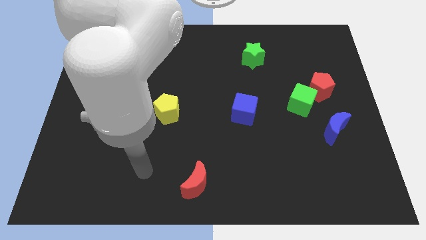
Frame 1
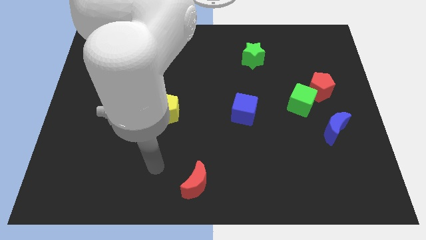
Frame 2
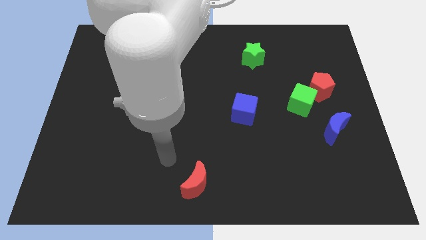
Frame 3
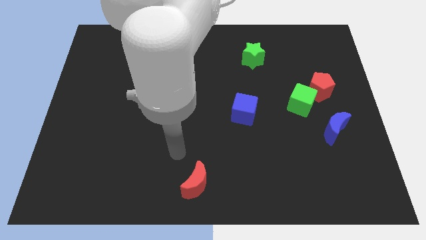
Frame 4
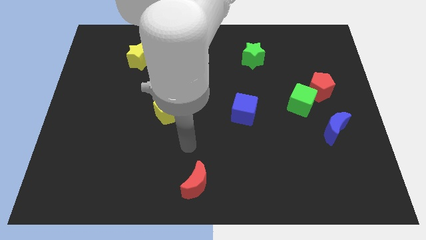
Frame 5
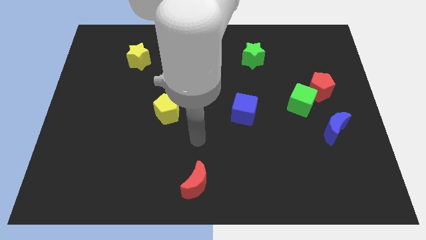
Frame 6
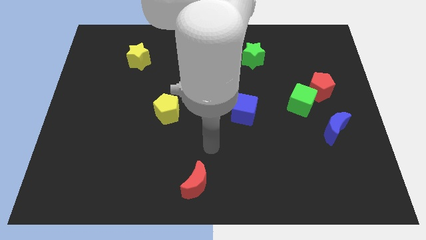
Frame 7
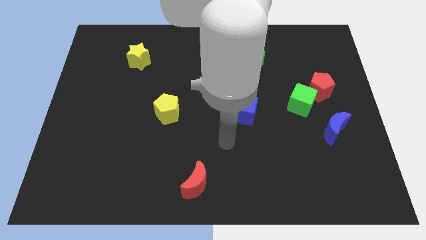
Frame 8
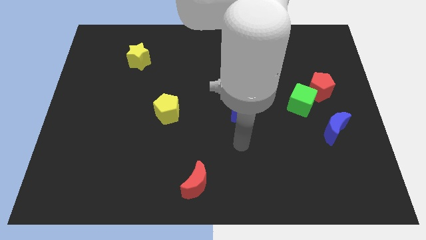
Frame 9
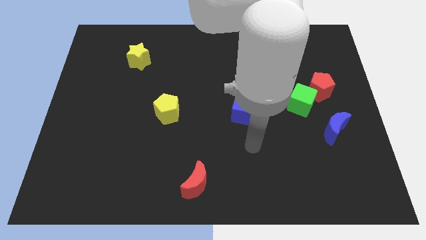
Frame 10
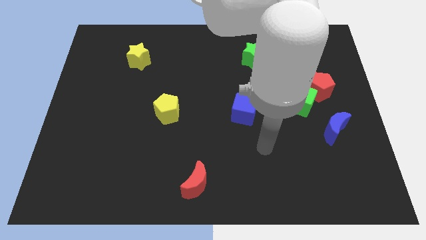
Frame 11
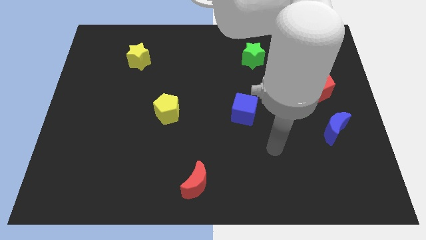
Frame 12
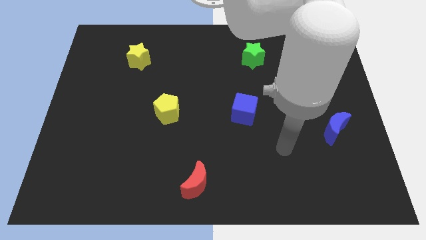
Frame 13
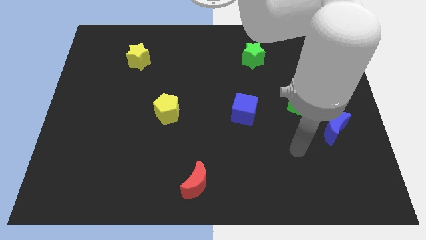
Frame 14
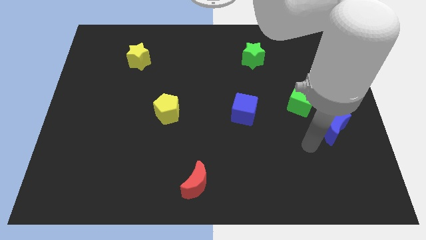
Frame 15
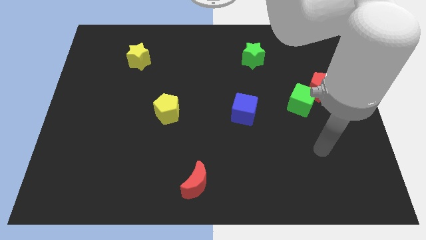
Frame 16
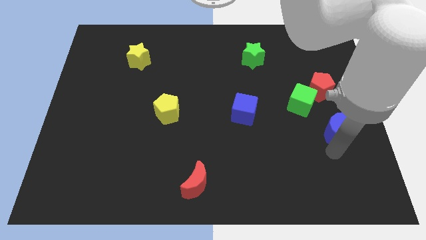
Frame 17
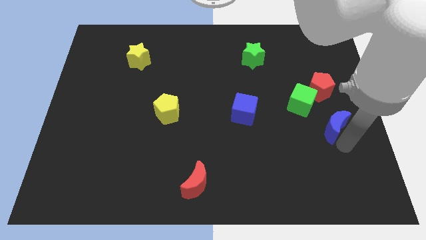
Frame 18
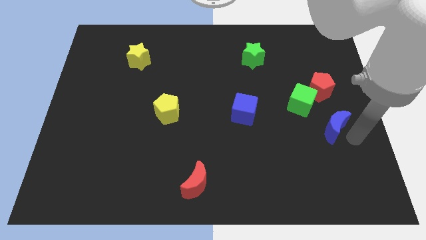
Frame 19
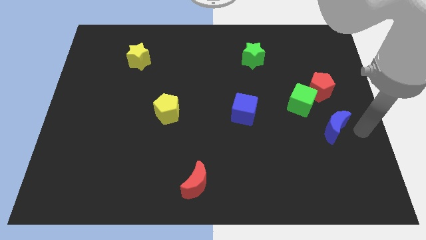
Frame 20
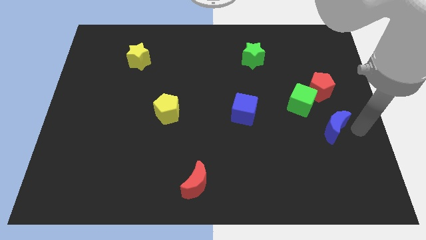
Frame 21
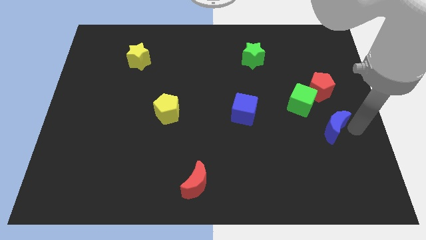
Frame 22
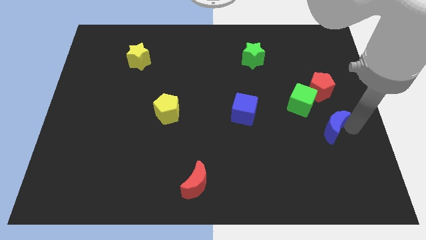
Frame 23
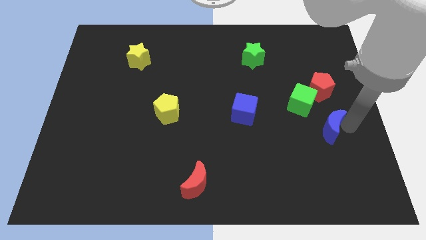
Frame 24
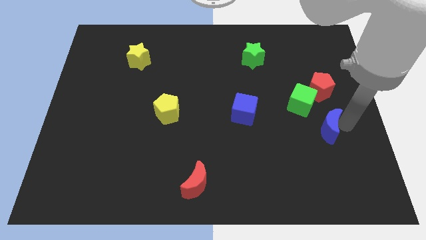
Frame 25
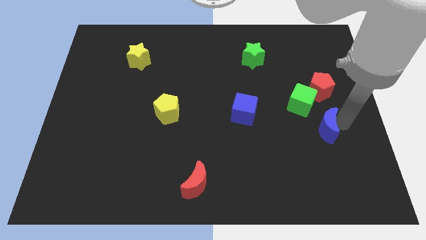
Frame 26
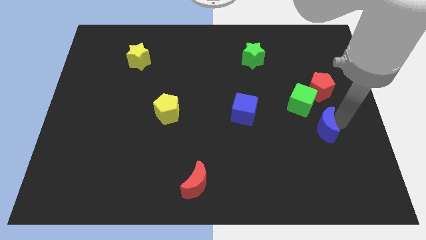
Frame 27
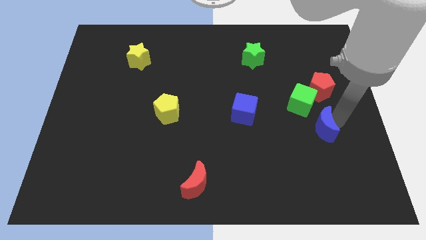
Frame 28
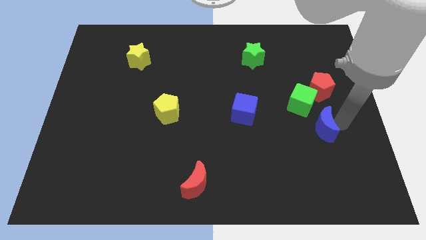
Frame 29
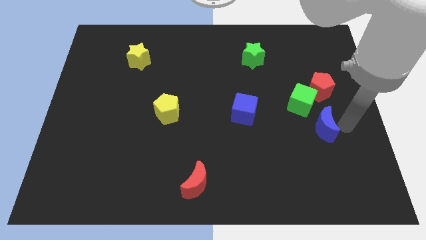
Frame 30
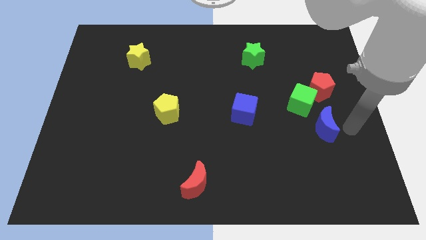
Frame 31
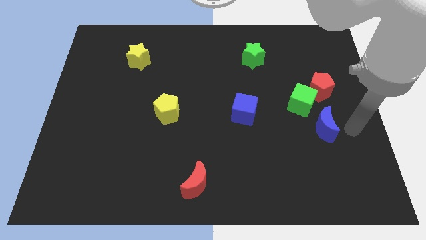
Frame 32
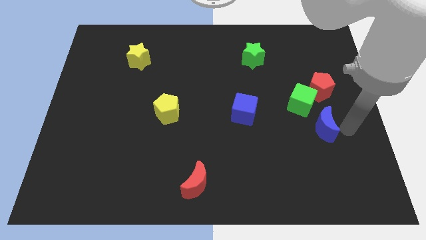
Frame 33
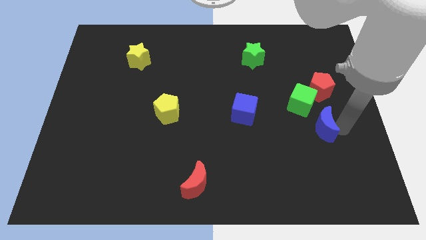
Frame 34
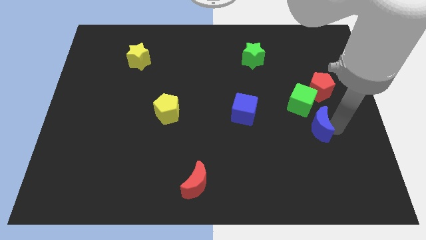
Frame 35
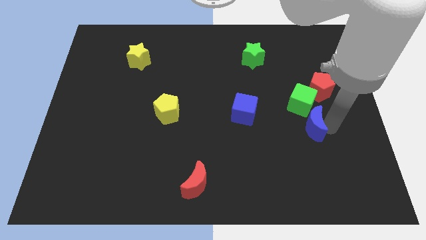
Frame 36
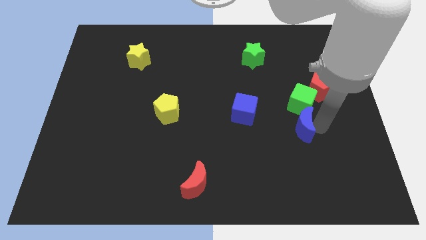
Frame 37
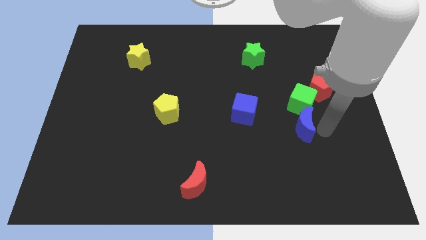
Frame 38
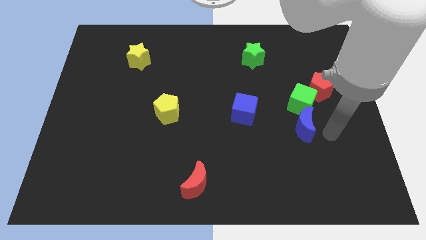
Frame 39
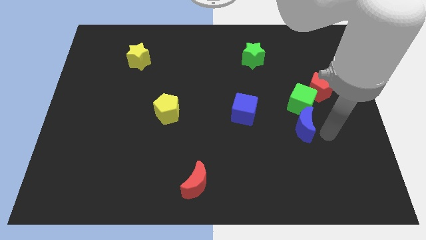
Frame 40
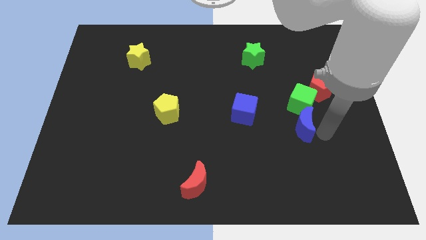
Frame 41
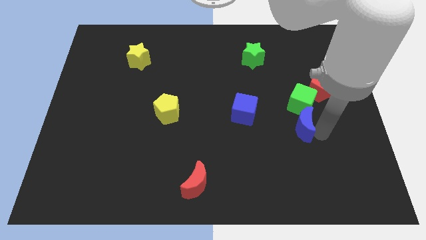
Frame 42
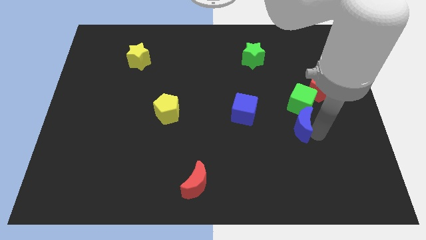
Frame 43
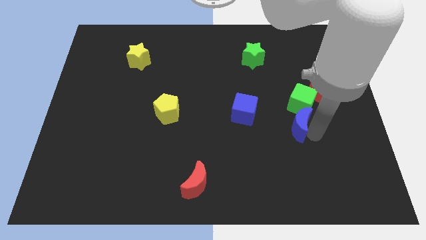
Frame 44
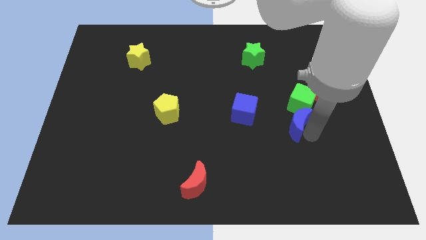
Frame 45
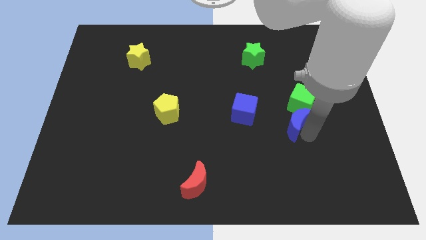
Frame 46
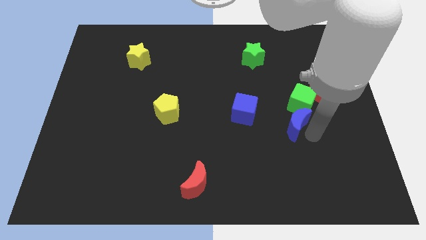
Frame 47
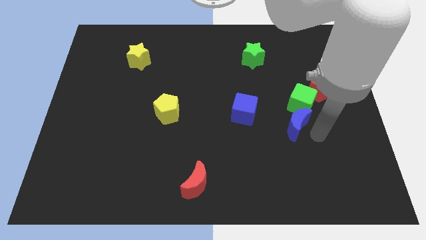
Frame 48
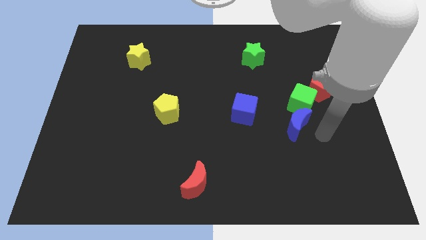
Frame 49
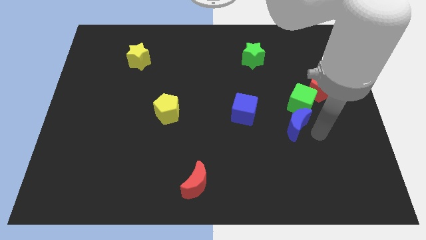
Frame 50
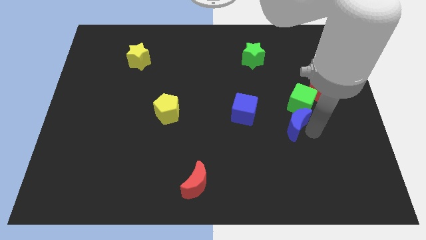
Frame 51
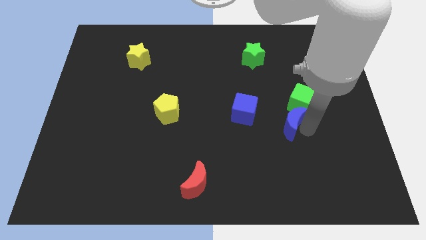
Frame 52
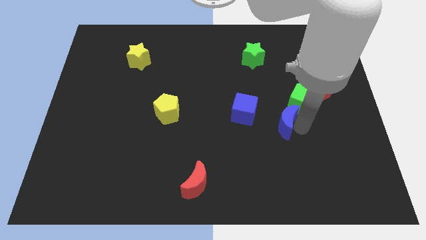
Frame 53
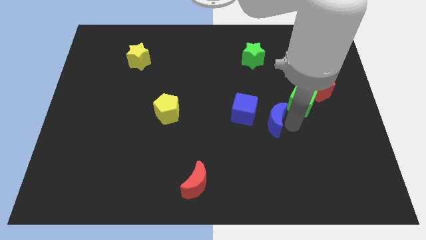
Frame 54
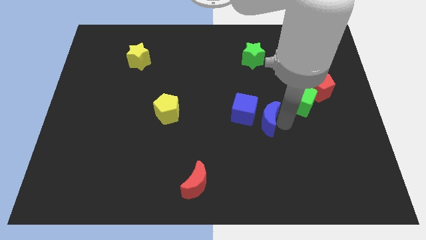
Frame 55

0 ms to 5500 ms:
push the blue moon to the blue cube

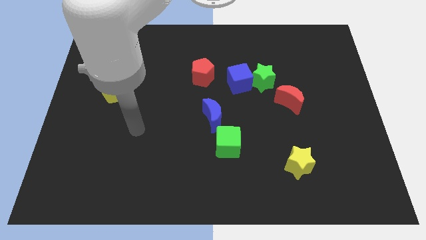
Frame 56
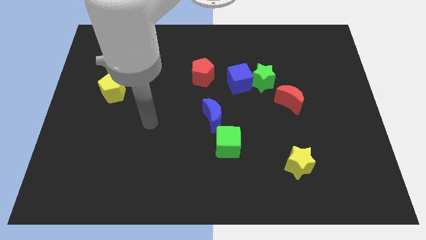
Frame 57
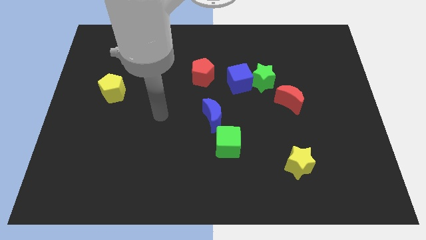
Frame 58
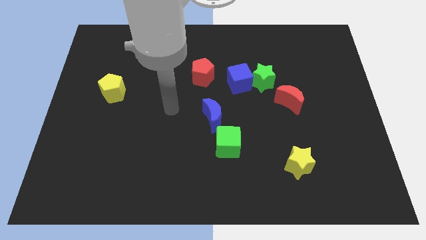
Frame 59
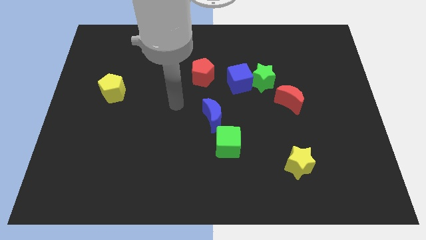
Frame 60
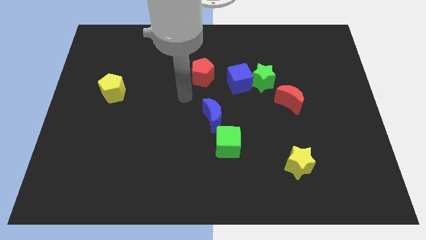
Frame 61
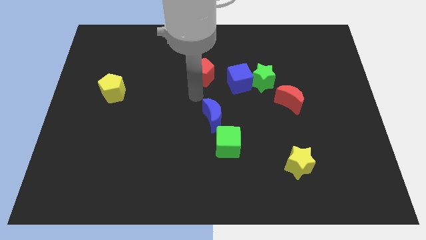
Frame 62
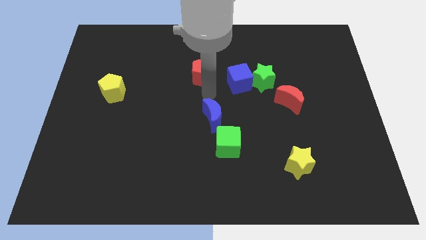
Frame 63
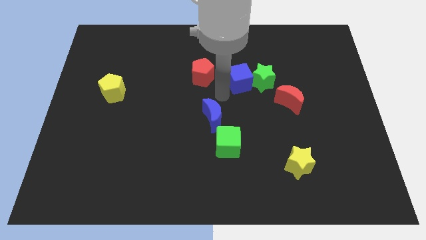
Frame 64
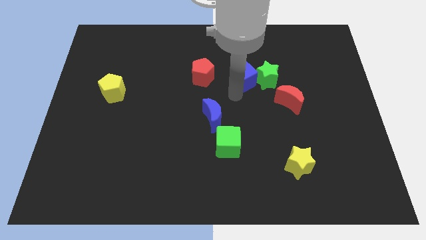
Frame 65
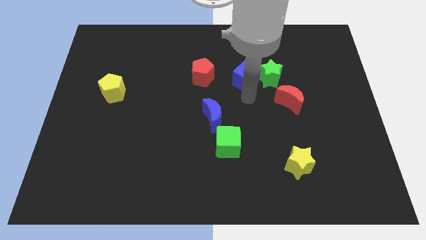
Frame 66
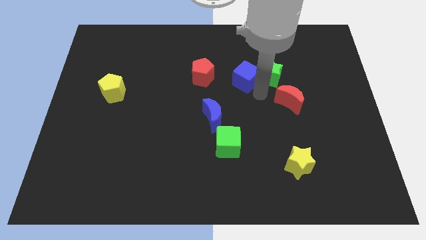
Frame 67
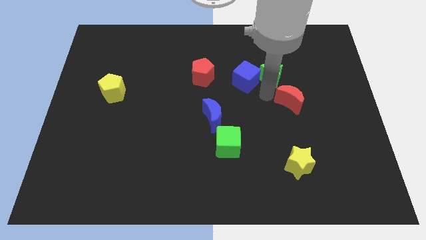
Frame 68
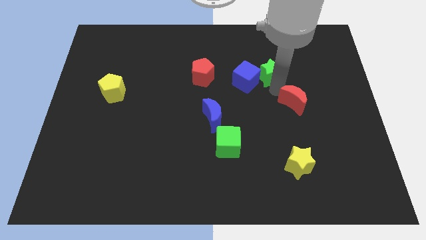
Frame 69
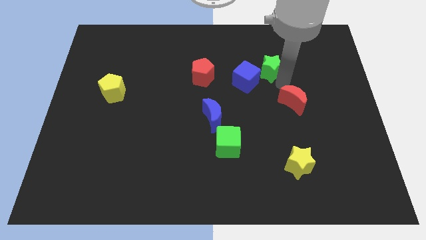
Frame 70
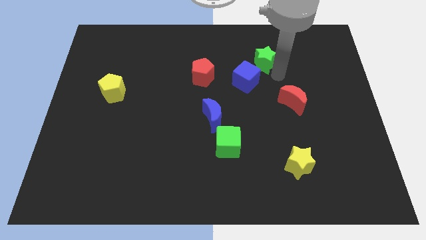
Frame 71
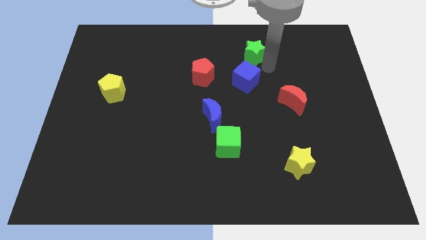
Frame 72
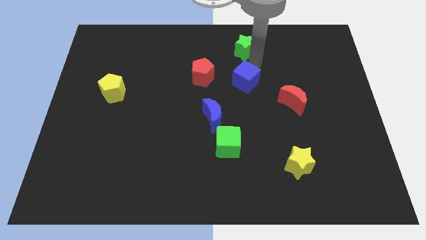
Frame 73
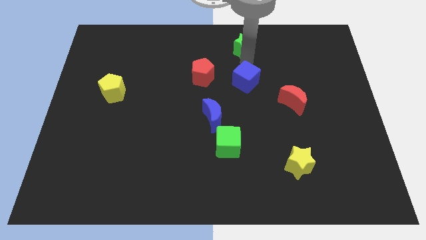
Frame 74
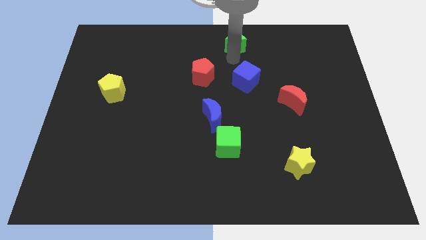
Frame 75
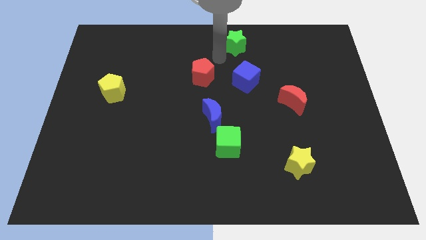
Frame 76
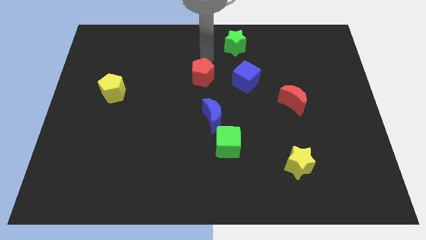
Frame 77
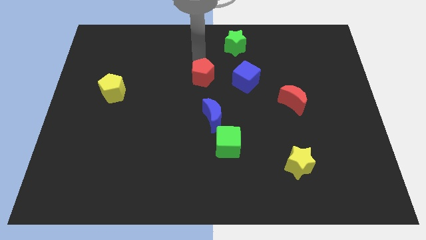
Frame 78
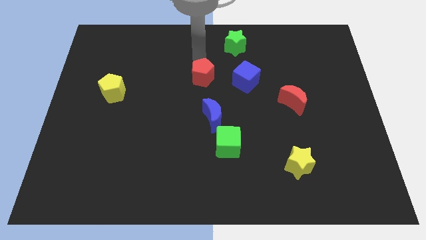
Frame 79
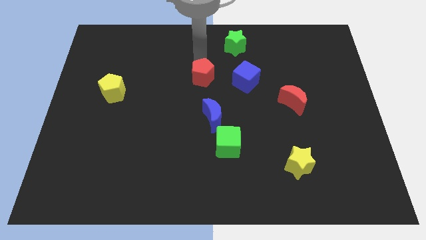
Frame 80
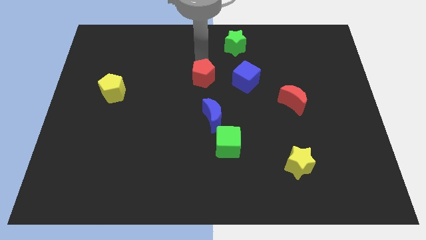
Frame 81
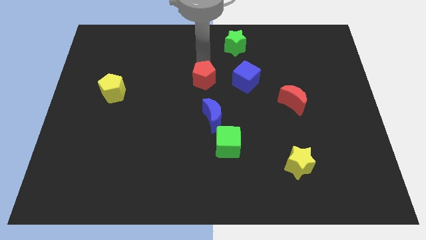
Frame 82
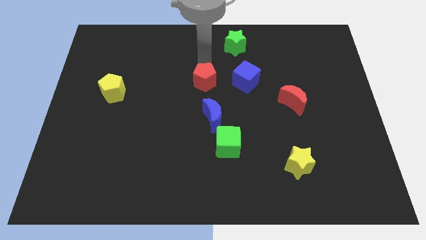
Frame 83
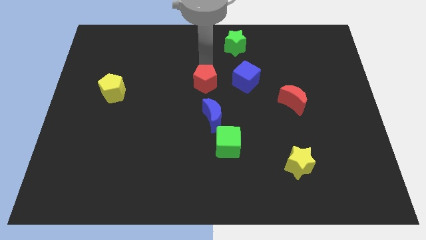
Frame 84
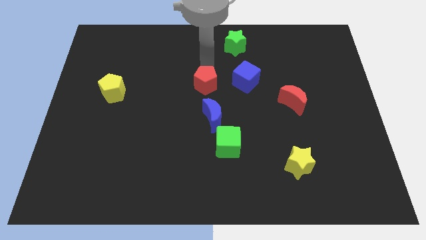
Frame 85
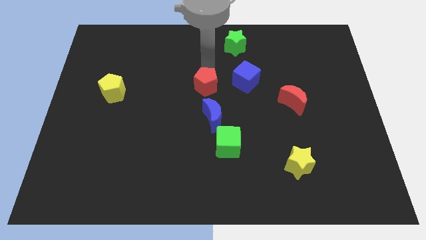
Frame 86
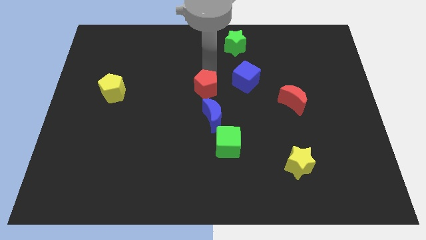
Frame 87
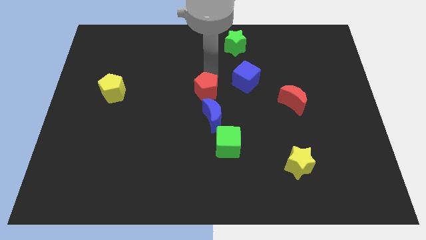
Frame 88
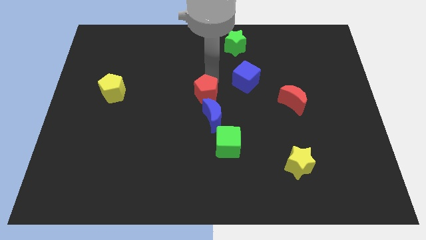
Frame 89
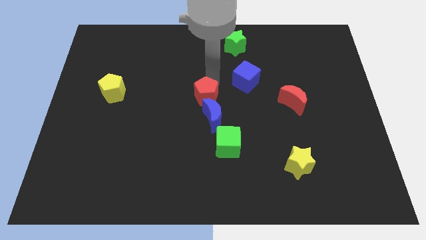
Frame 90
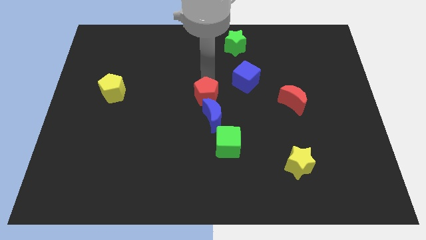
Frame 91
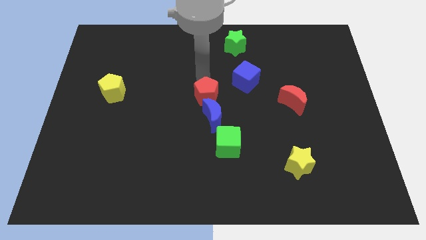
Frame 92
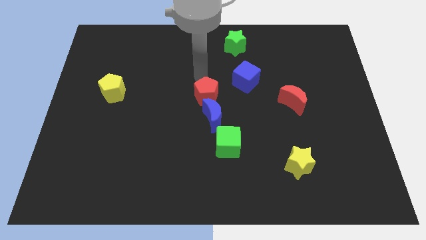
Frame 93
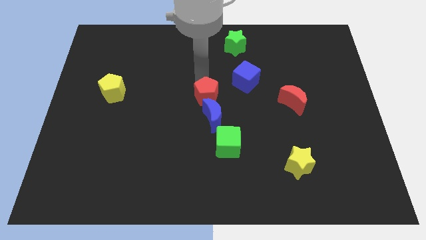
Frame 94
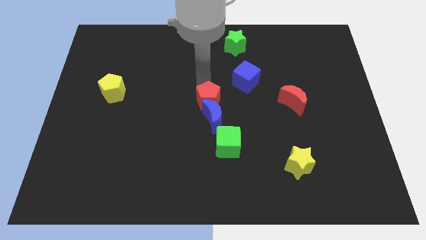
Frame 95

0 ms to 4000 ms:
push the red pentagon to the blue moon
